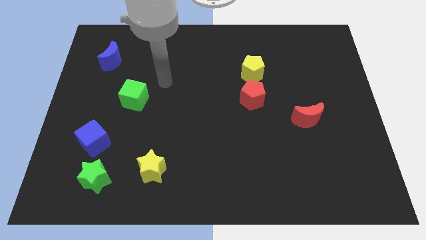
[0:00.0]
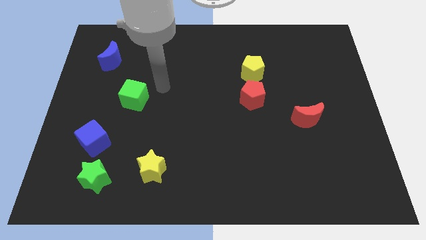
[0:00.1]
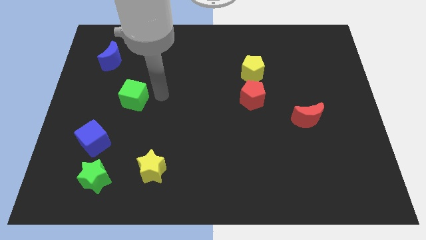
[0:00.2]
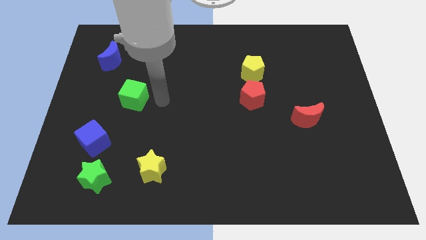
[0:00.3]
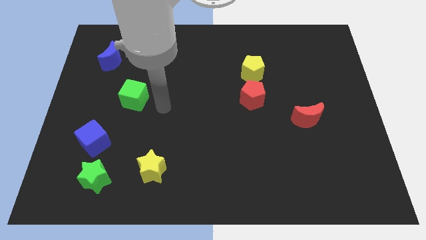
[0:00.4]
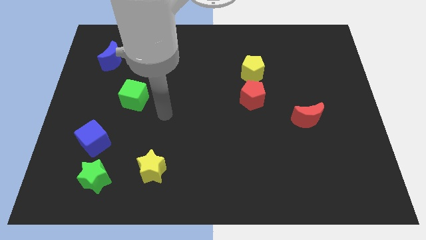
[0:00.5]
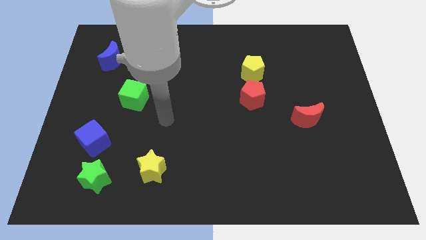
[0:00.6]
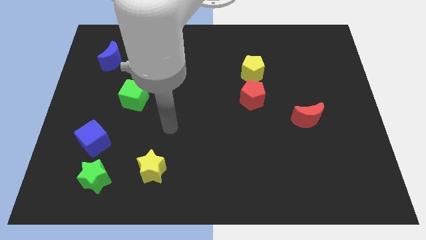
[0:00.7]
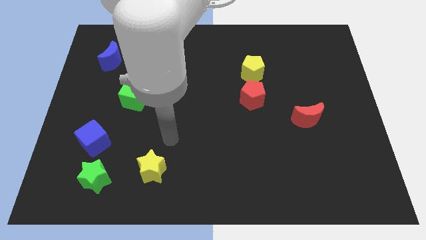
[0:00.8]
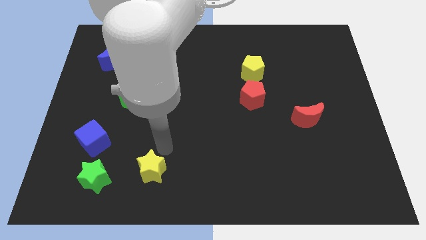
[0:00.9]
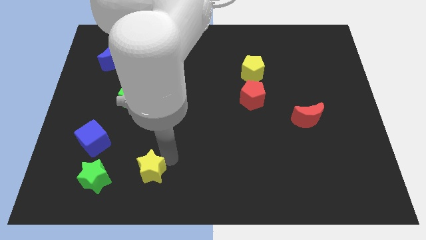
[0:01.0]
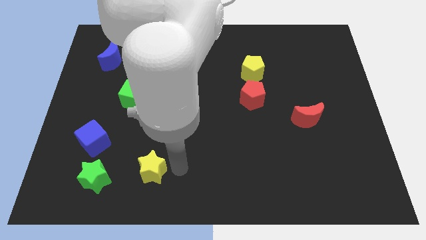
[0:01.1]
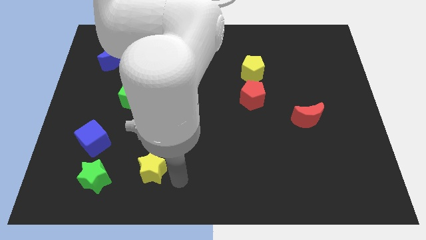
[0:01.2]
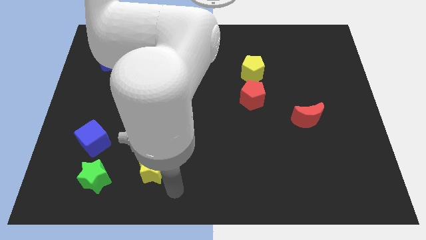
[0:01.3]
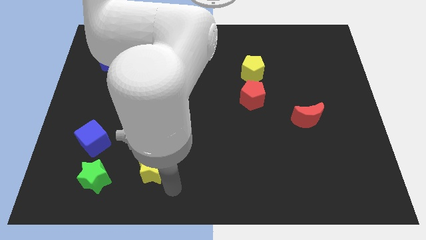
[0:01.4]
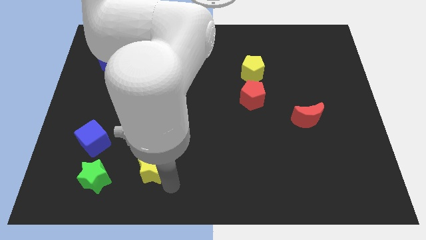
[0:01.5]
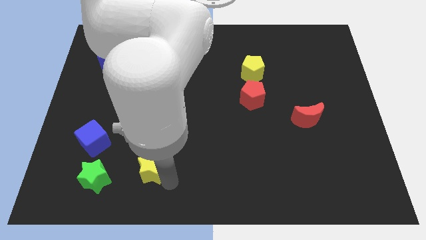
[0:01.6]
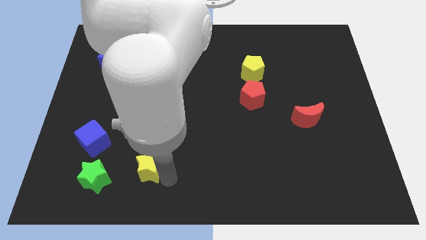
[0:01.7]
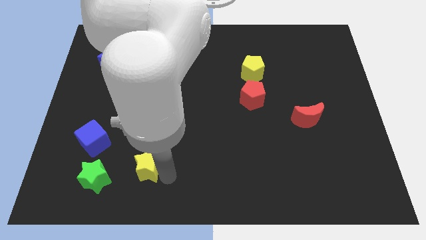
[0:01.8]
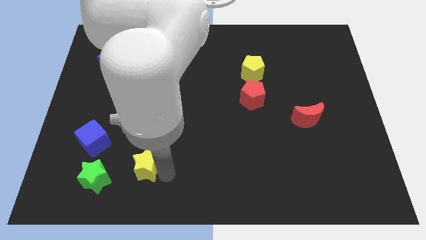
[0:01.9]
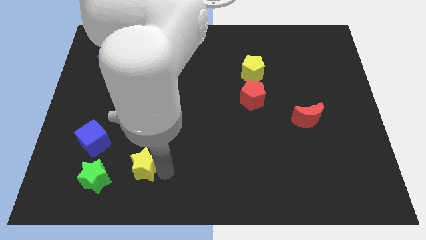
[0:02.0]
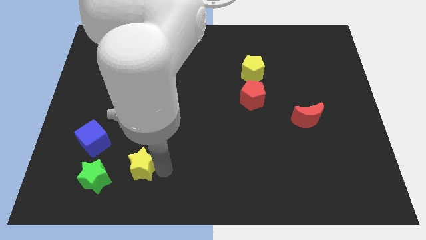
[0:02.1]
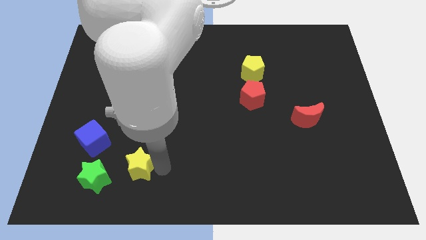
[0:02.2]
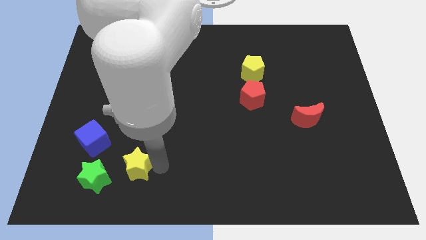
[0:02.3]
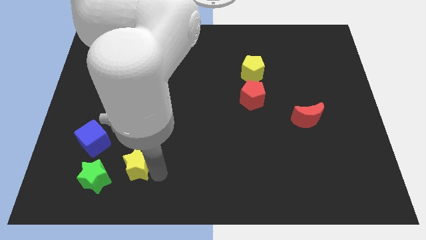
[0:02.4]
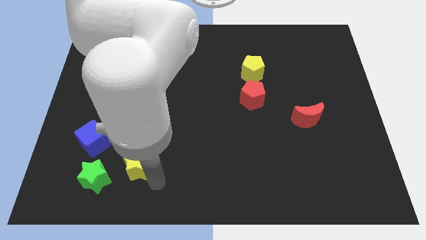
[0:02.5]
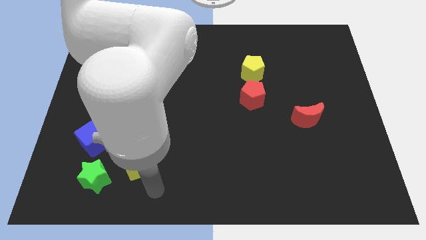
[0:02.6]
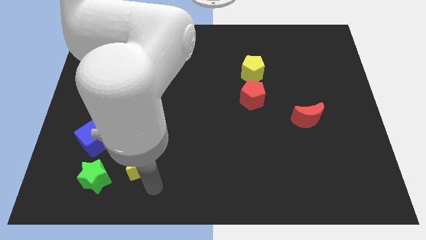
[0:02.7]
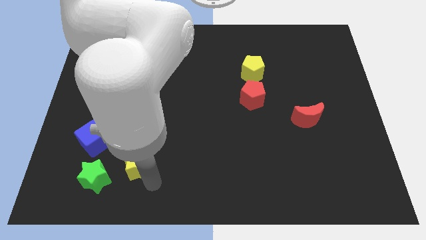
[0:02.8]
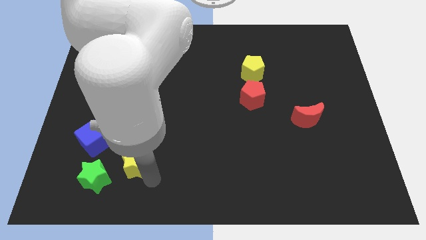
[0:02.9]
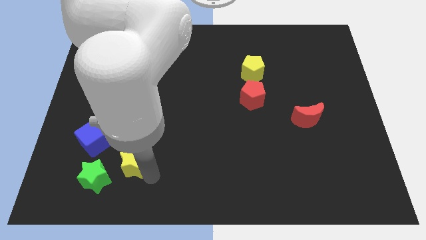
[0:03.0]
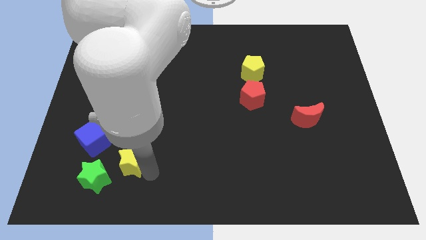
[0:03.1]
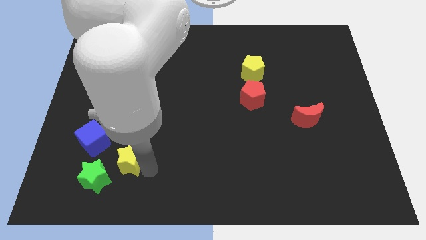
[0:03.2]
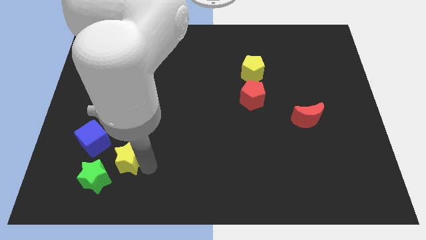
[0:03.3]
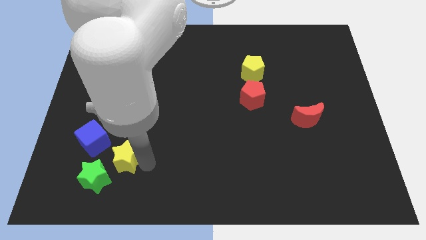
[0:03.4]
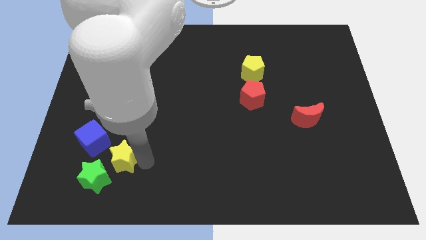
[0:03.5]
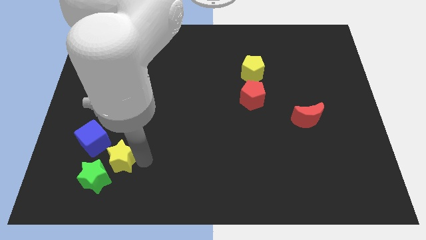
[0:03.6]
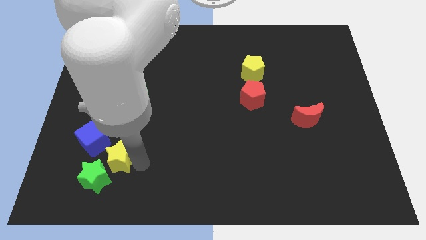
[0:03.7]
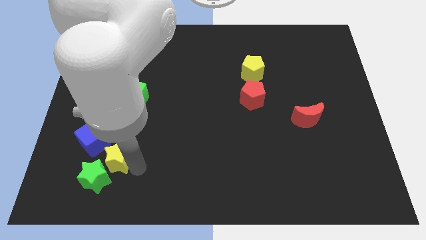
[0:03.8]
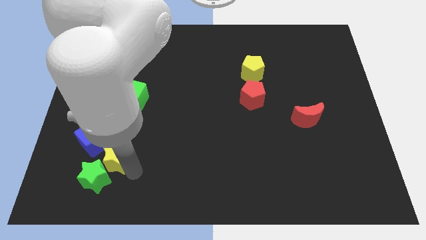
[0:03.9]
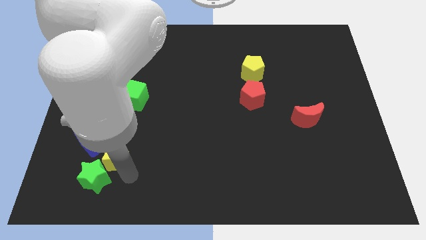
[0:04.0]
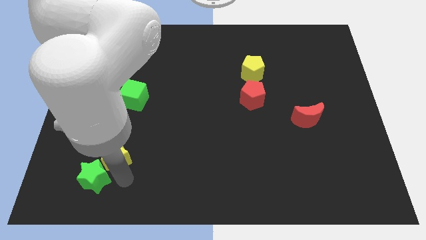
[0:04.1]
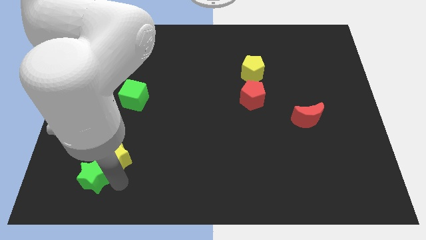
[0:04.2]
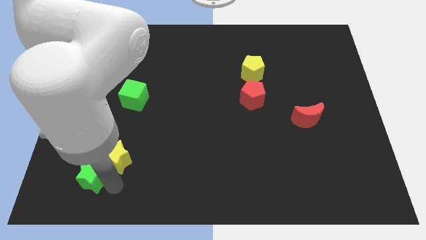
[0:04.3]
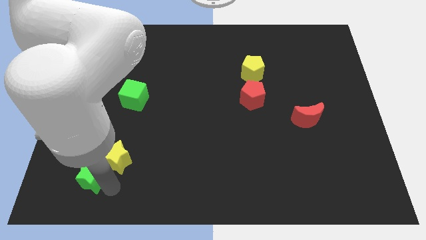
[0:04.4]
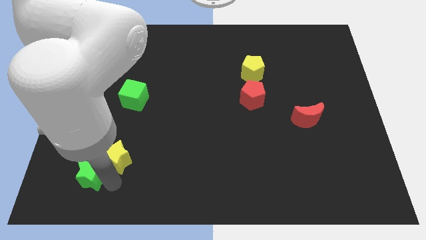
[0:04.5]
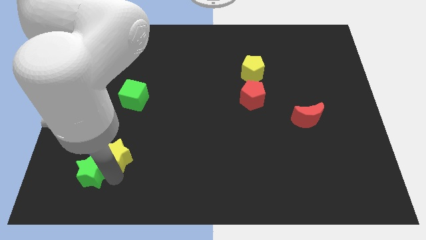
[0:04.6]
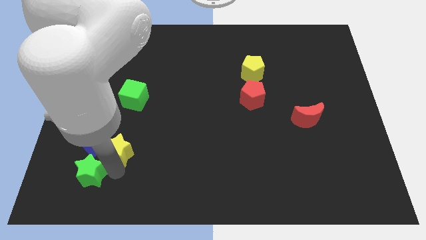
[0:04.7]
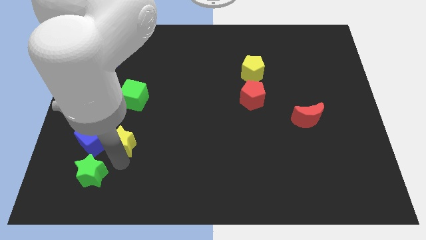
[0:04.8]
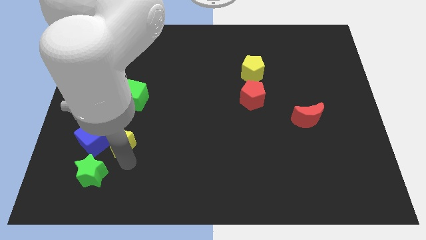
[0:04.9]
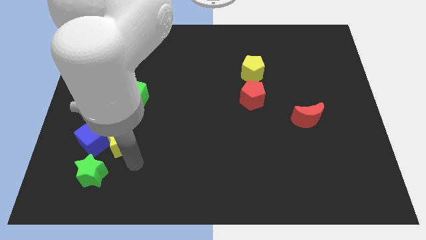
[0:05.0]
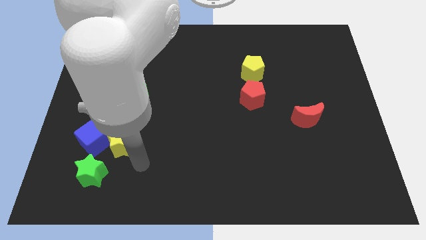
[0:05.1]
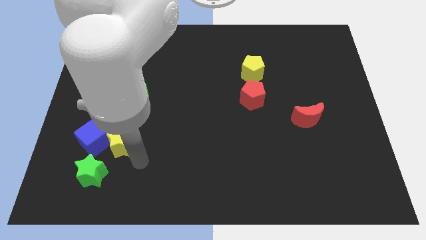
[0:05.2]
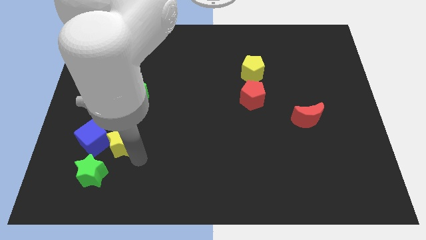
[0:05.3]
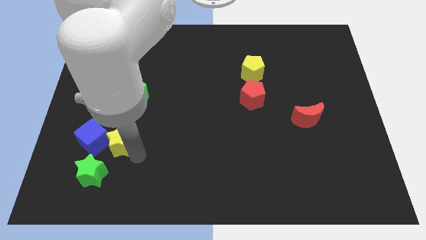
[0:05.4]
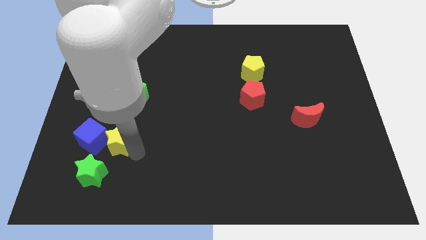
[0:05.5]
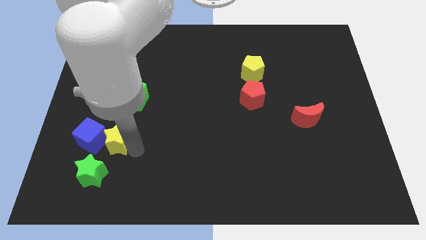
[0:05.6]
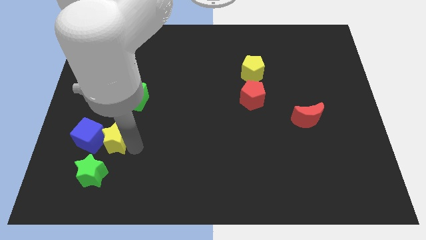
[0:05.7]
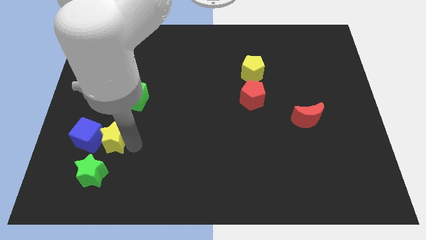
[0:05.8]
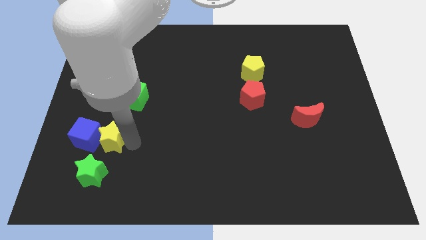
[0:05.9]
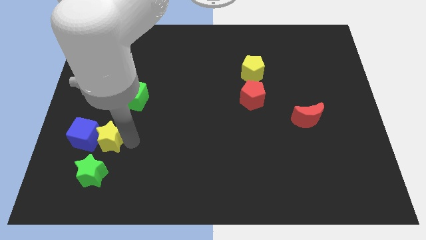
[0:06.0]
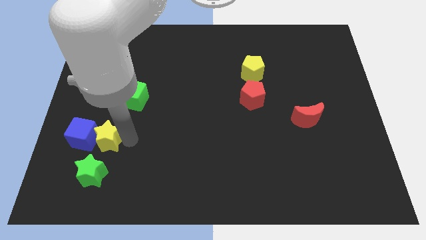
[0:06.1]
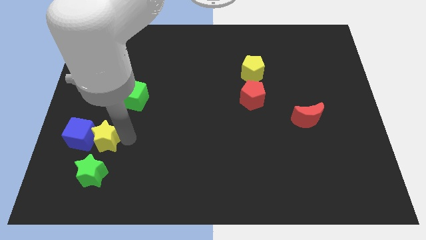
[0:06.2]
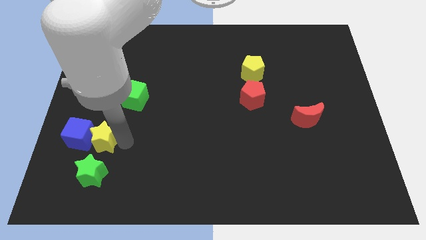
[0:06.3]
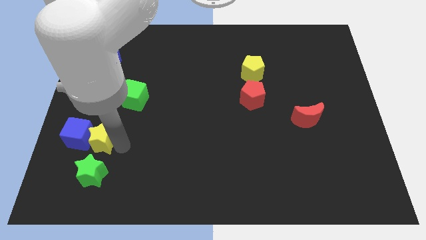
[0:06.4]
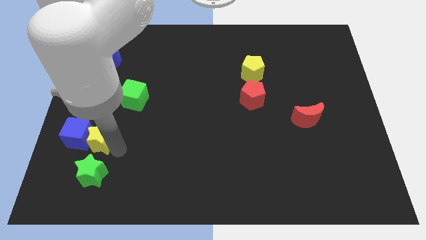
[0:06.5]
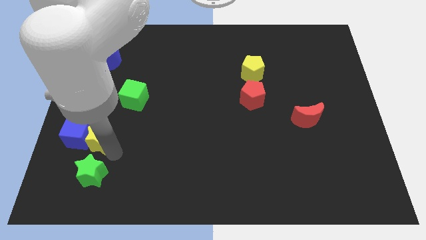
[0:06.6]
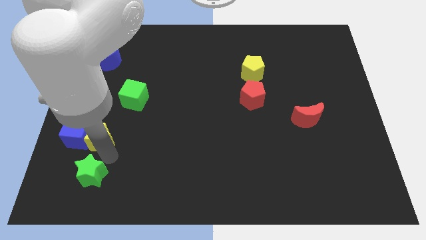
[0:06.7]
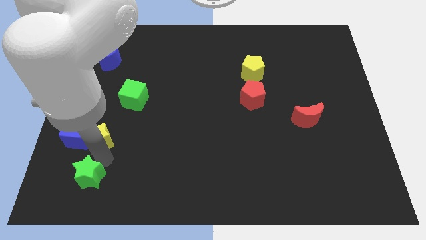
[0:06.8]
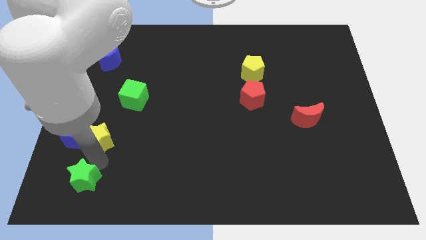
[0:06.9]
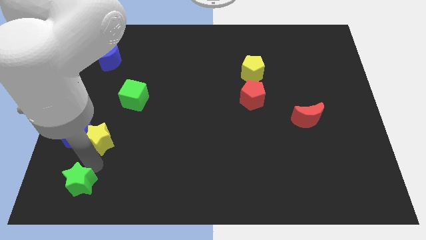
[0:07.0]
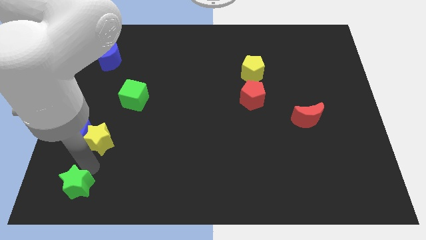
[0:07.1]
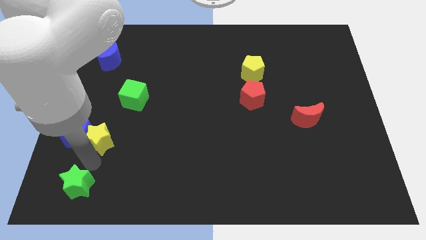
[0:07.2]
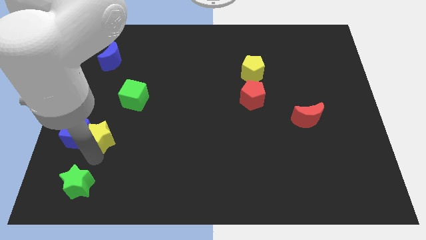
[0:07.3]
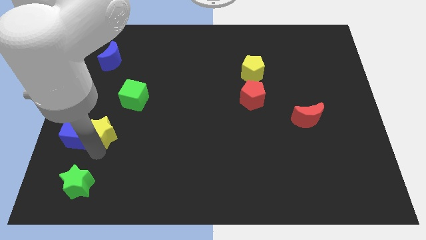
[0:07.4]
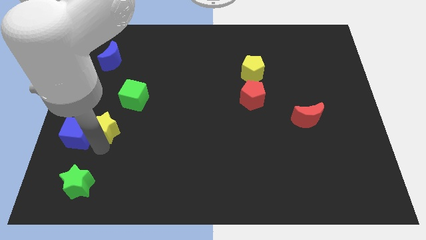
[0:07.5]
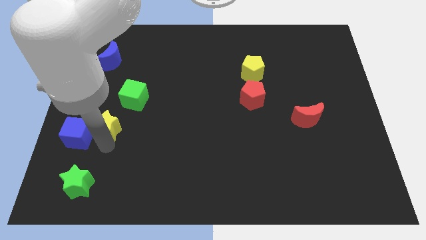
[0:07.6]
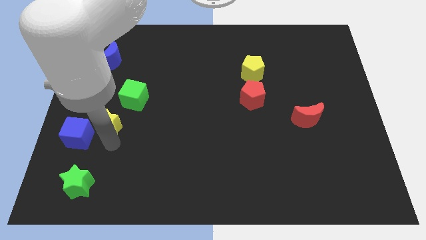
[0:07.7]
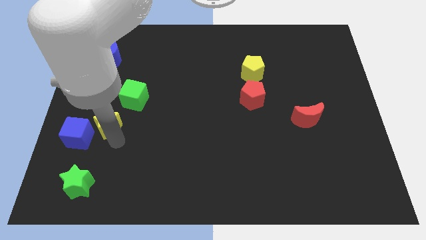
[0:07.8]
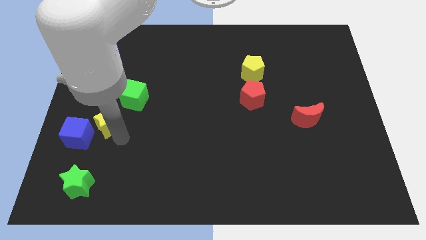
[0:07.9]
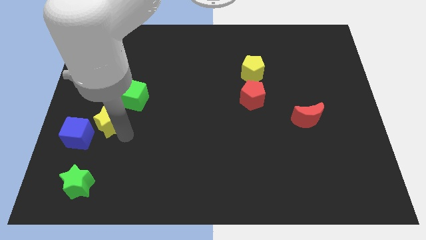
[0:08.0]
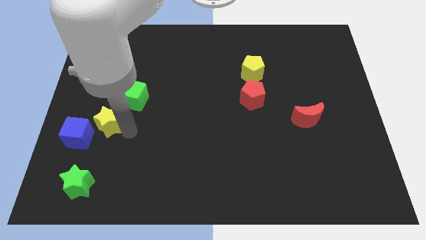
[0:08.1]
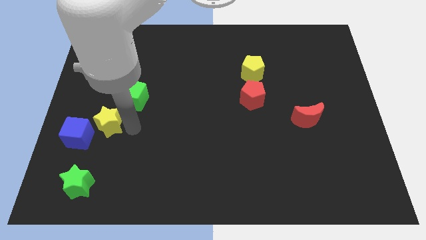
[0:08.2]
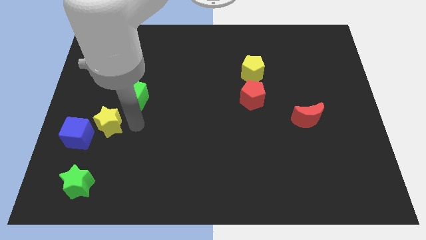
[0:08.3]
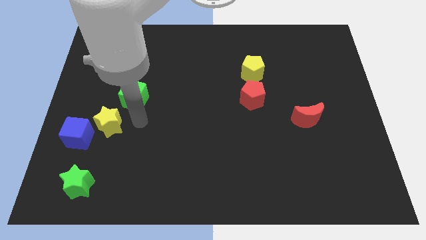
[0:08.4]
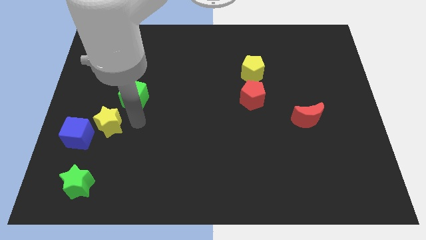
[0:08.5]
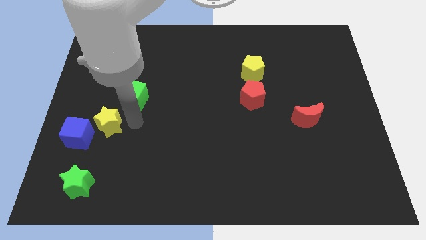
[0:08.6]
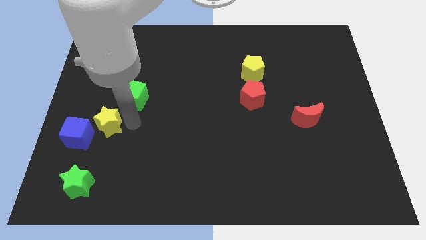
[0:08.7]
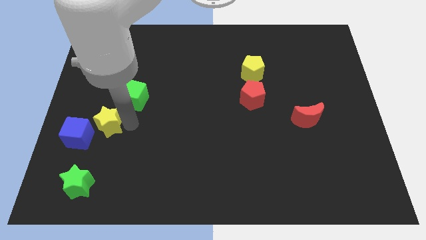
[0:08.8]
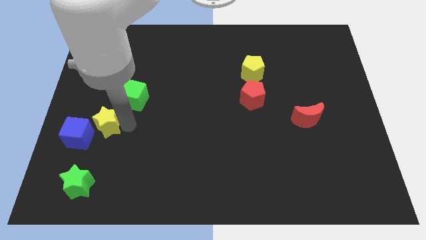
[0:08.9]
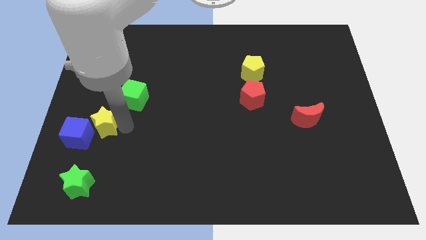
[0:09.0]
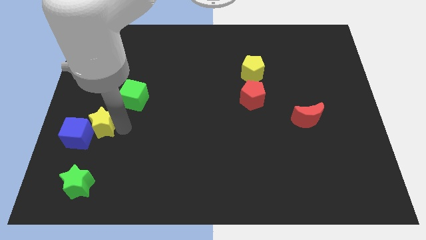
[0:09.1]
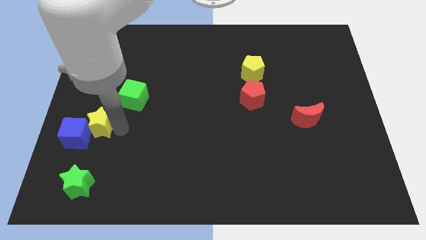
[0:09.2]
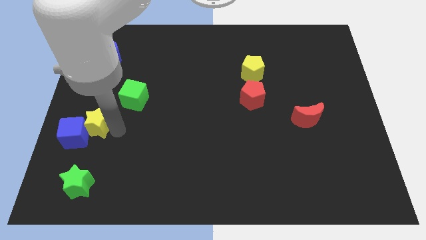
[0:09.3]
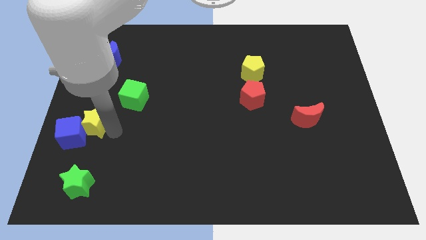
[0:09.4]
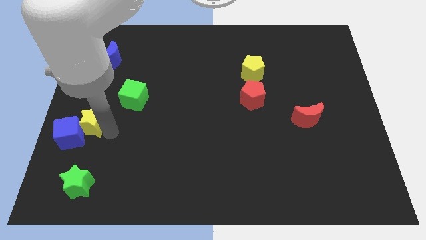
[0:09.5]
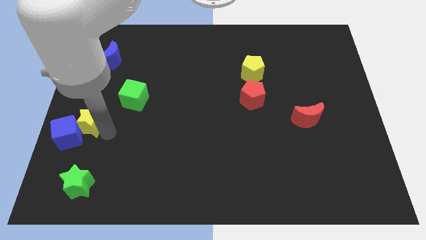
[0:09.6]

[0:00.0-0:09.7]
move the yellow star to the center left
